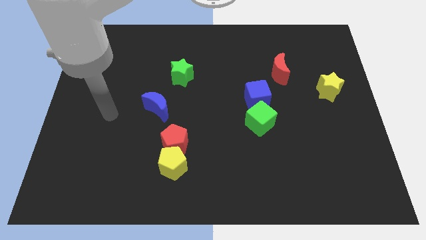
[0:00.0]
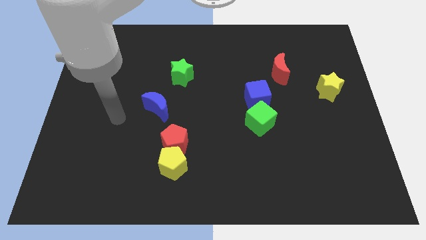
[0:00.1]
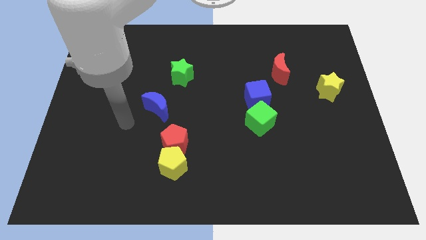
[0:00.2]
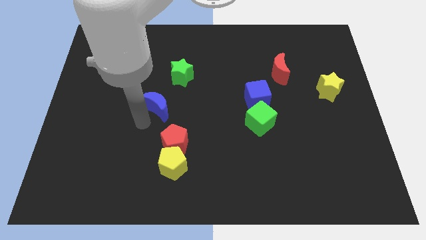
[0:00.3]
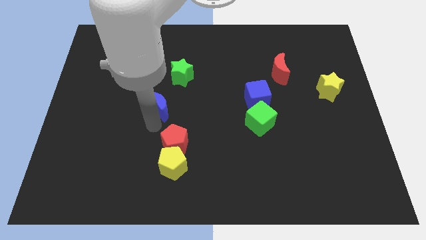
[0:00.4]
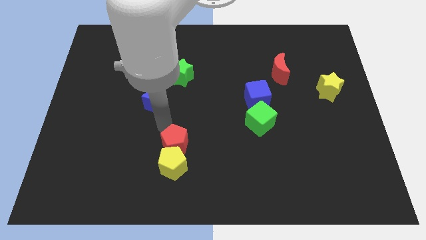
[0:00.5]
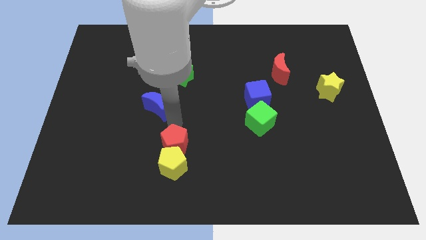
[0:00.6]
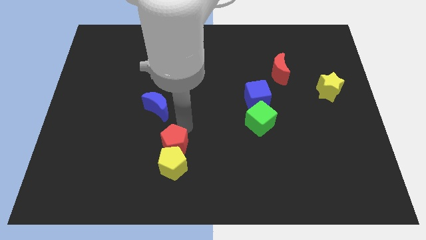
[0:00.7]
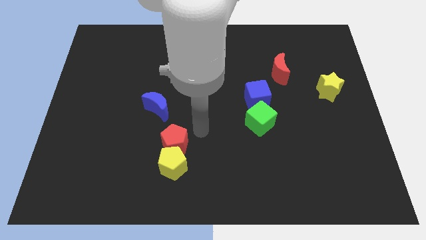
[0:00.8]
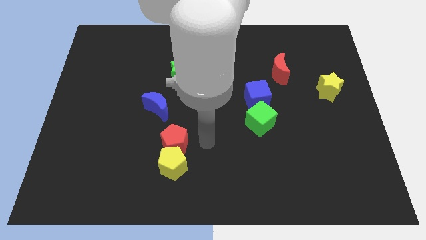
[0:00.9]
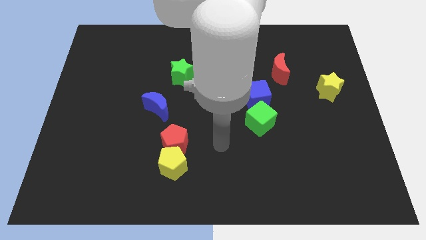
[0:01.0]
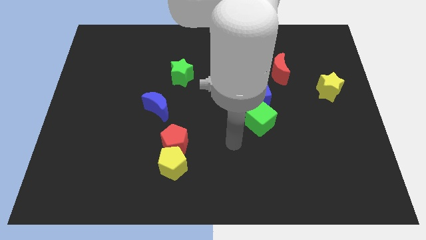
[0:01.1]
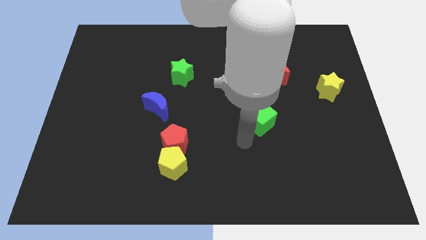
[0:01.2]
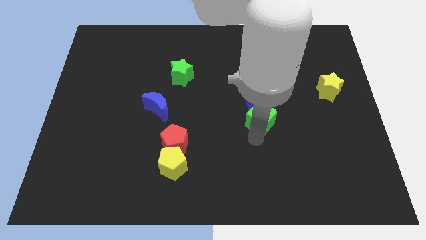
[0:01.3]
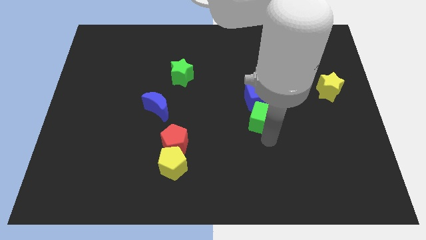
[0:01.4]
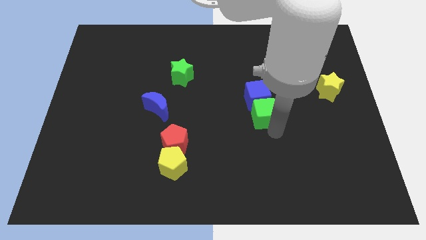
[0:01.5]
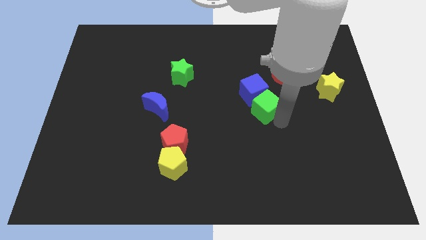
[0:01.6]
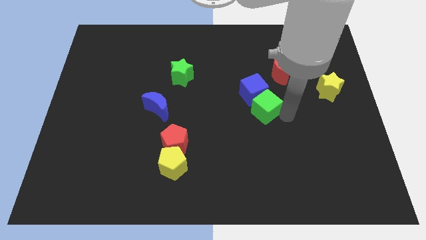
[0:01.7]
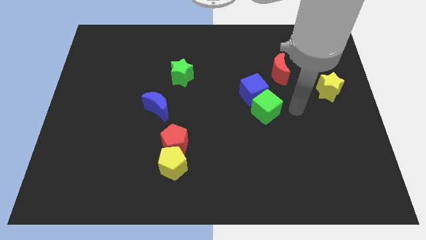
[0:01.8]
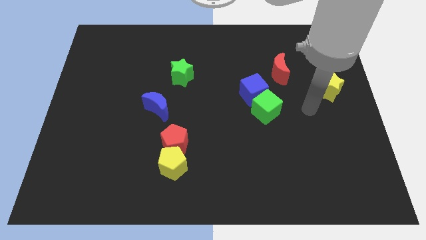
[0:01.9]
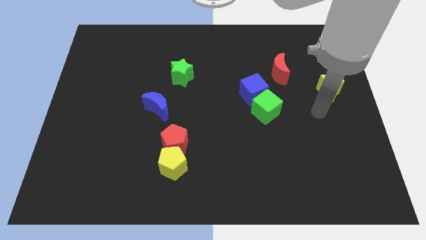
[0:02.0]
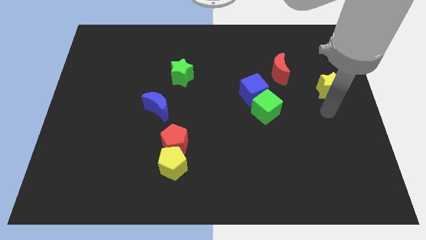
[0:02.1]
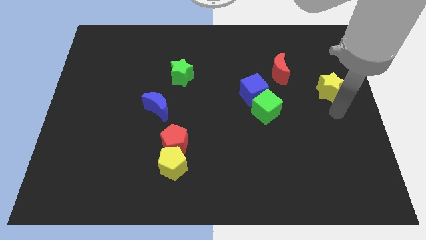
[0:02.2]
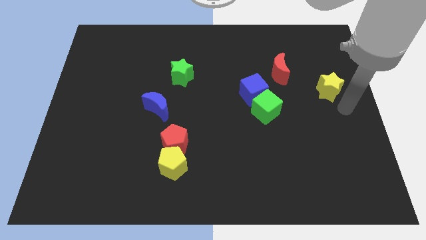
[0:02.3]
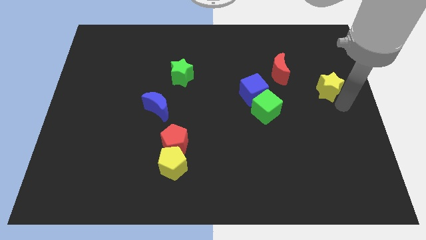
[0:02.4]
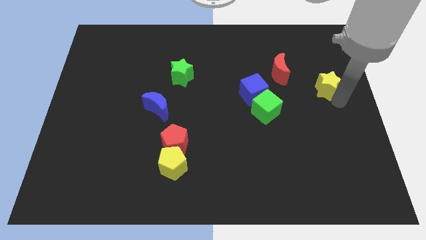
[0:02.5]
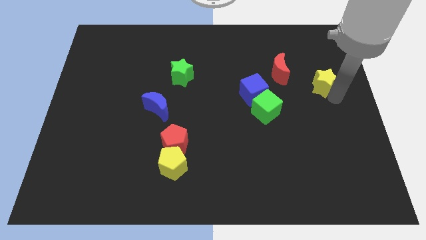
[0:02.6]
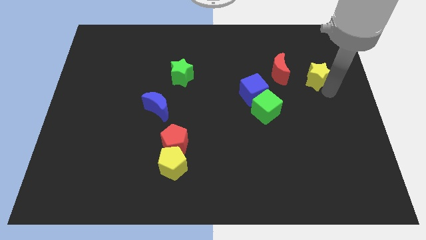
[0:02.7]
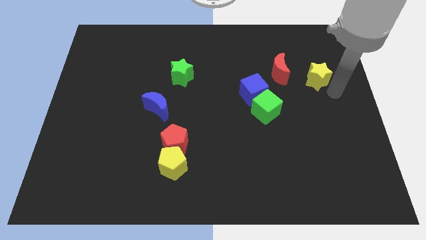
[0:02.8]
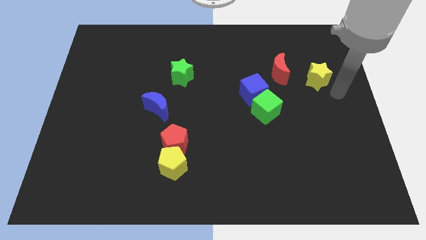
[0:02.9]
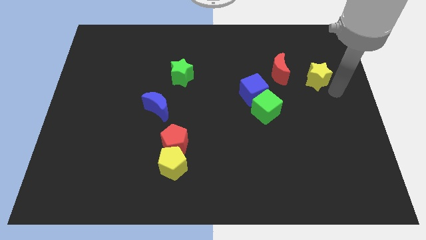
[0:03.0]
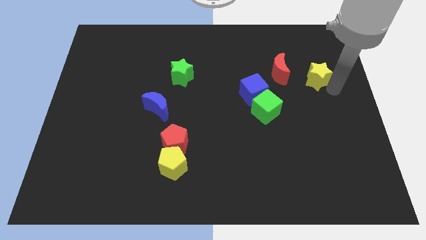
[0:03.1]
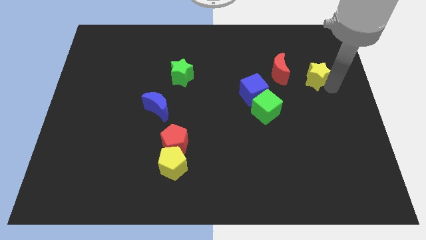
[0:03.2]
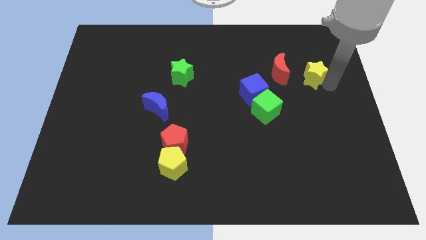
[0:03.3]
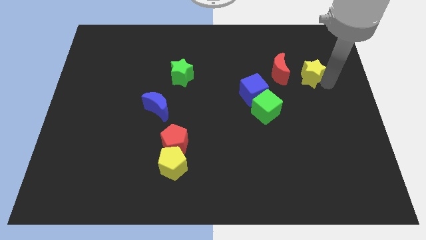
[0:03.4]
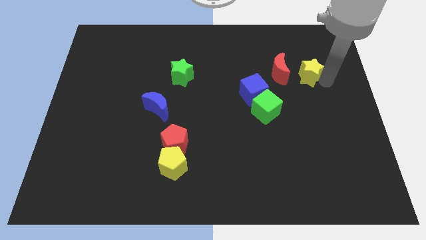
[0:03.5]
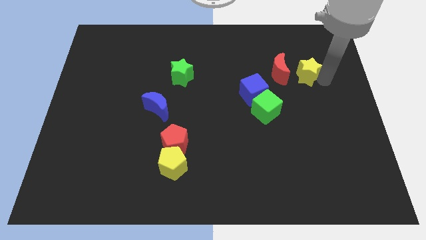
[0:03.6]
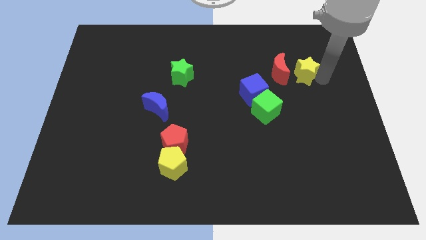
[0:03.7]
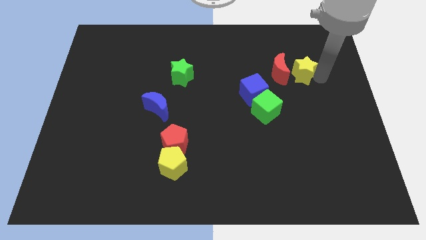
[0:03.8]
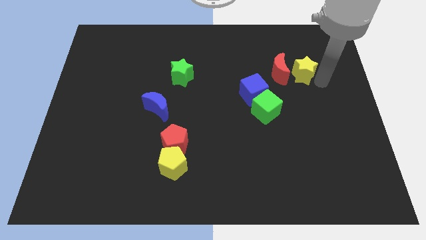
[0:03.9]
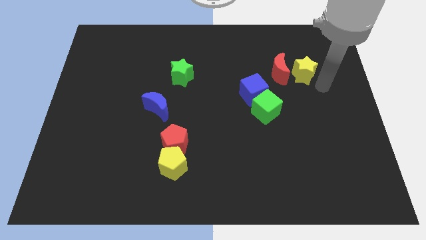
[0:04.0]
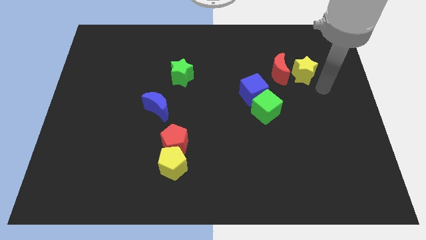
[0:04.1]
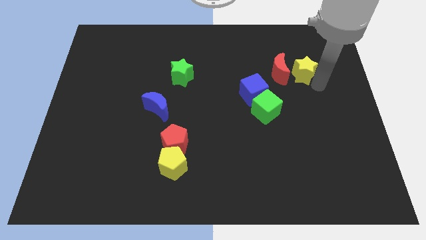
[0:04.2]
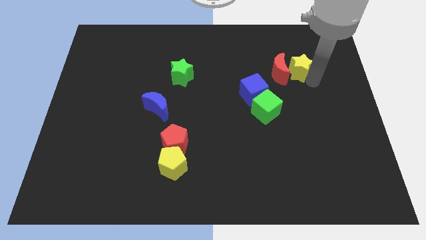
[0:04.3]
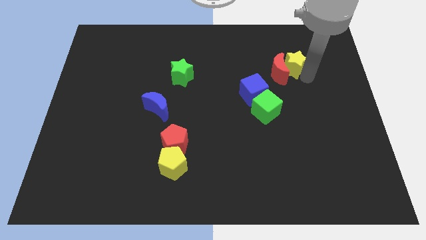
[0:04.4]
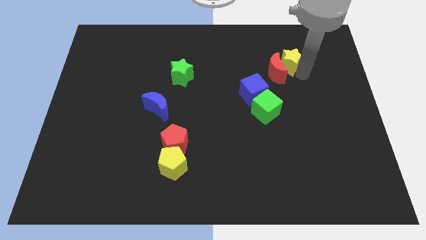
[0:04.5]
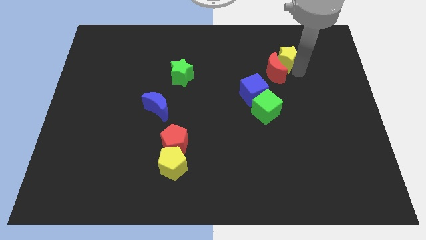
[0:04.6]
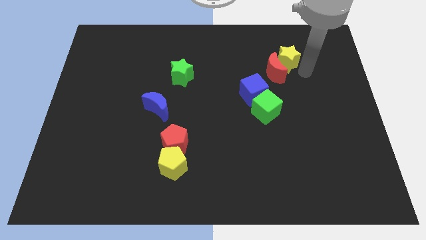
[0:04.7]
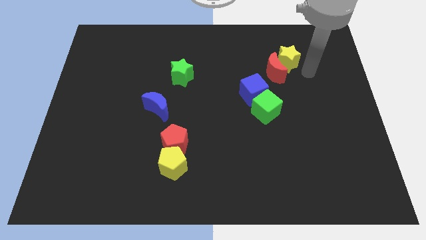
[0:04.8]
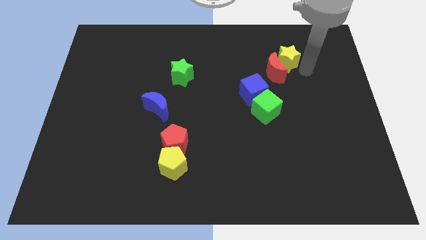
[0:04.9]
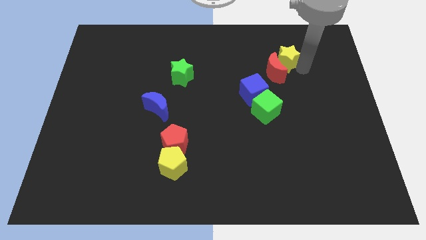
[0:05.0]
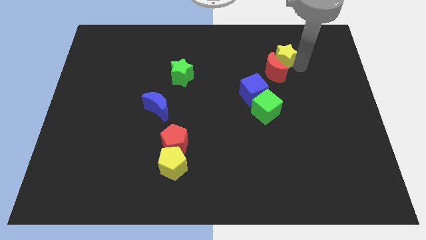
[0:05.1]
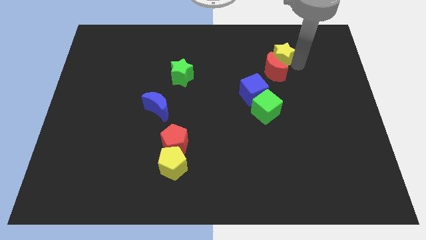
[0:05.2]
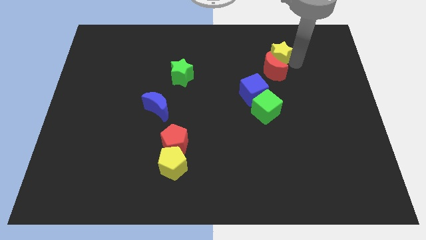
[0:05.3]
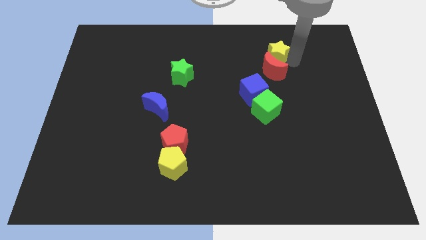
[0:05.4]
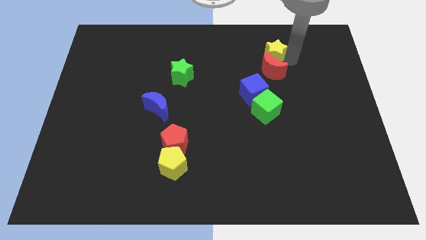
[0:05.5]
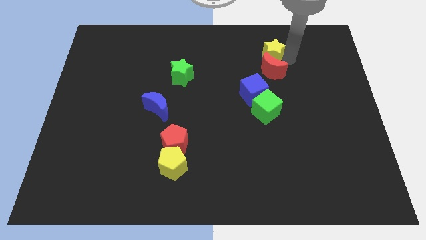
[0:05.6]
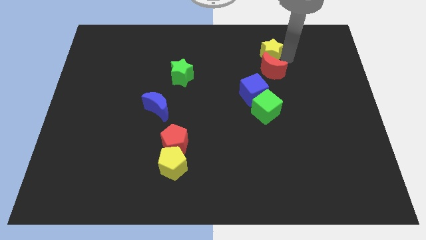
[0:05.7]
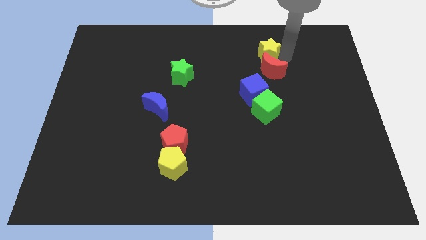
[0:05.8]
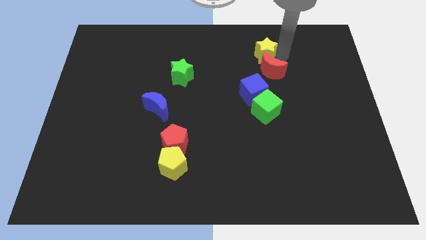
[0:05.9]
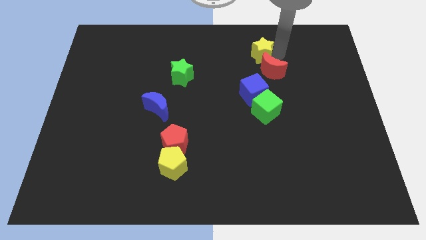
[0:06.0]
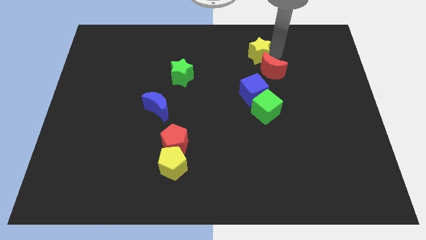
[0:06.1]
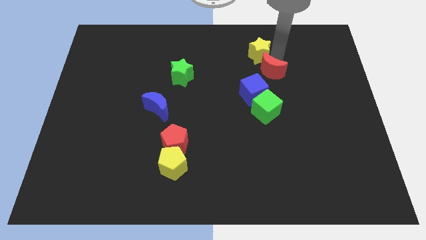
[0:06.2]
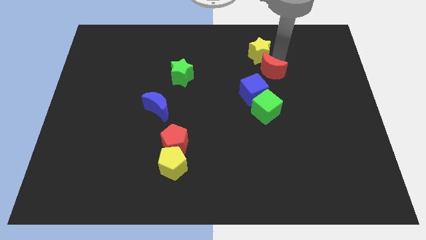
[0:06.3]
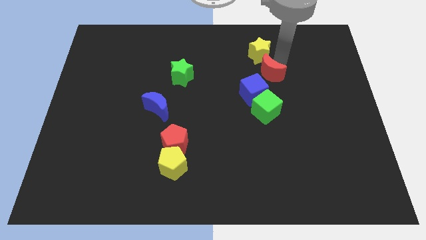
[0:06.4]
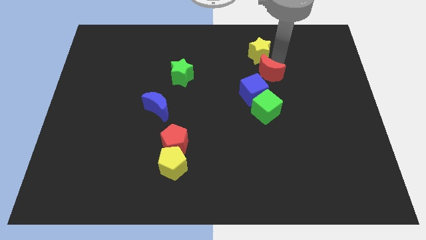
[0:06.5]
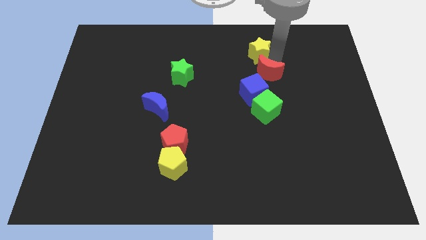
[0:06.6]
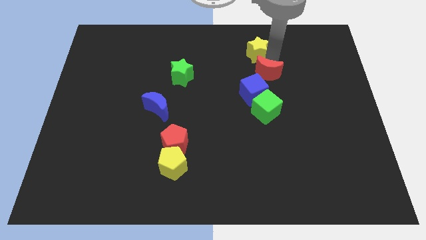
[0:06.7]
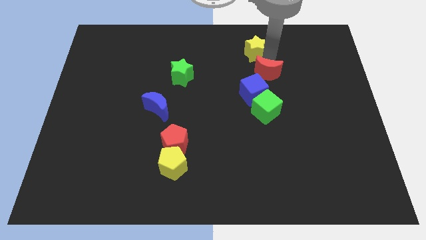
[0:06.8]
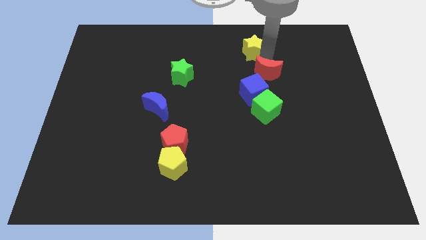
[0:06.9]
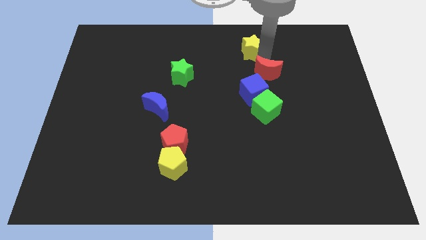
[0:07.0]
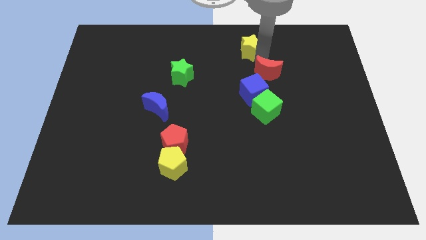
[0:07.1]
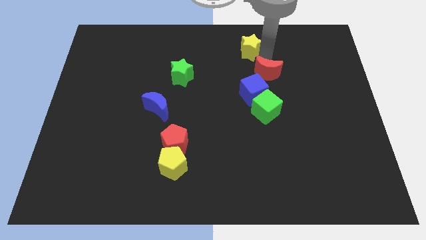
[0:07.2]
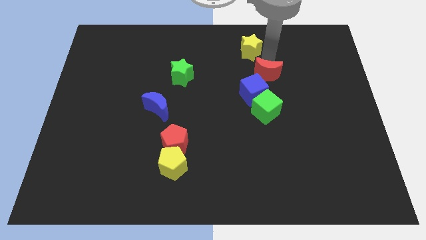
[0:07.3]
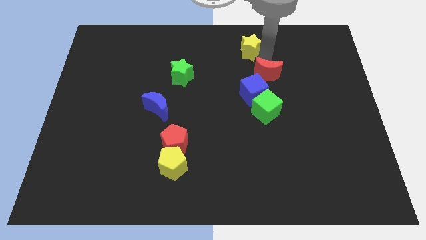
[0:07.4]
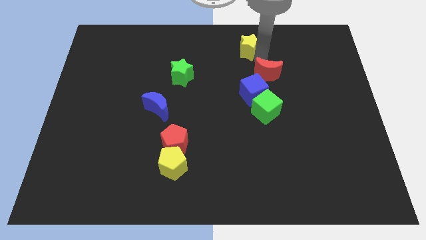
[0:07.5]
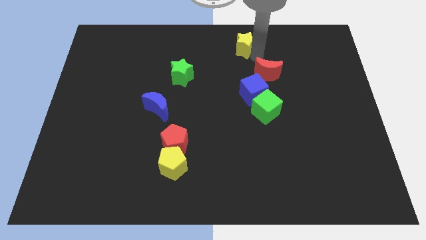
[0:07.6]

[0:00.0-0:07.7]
move the yellow star to the top
